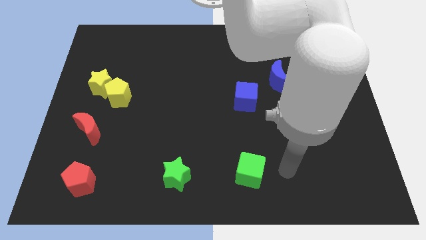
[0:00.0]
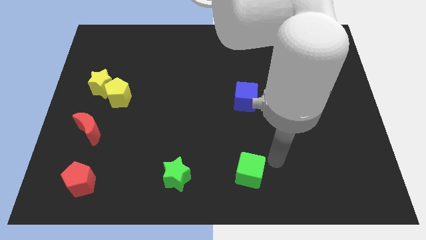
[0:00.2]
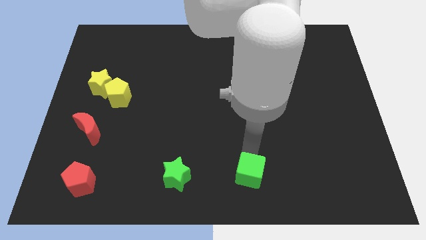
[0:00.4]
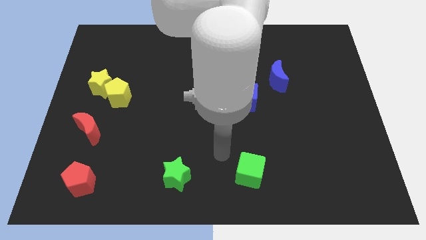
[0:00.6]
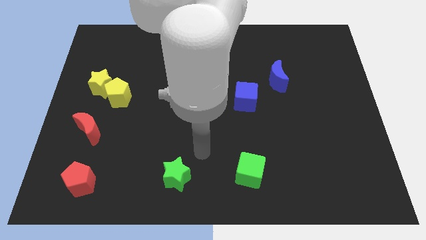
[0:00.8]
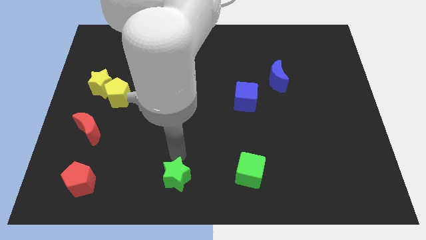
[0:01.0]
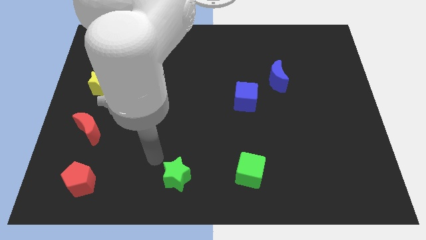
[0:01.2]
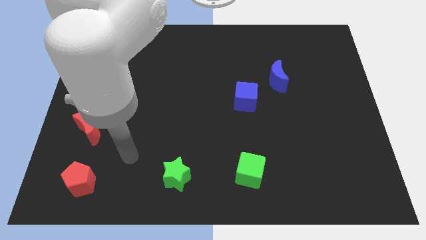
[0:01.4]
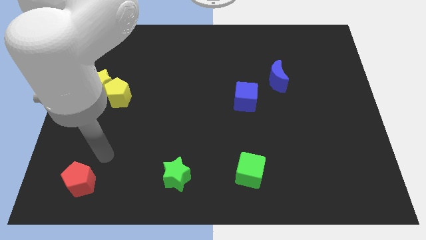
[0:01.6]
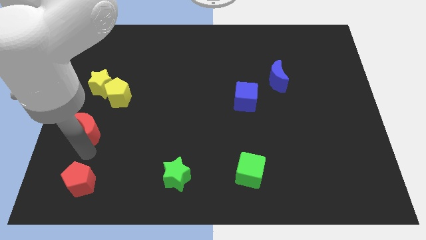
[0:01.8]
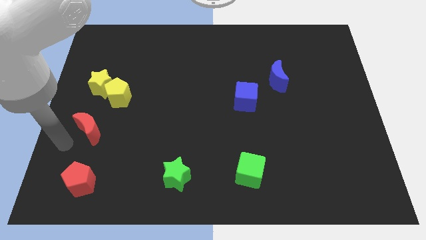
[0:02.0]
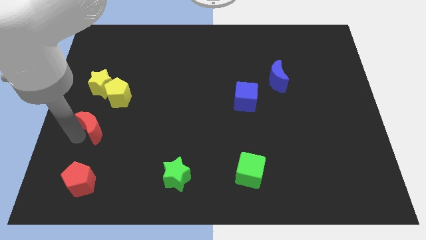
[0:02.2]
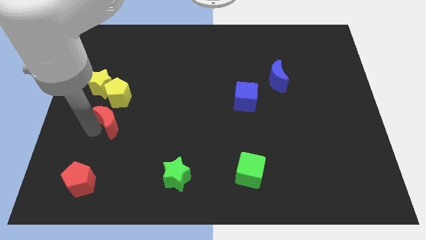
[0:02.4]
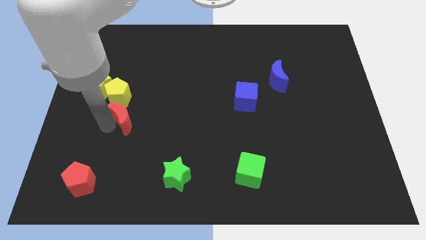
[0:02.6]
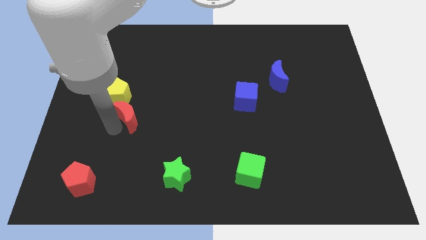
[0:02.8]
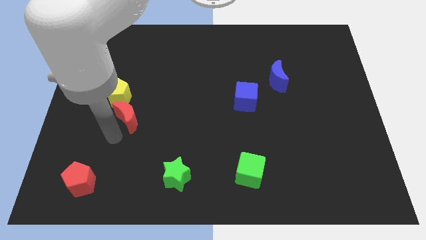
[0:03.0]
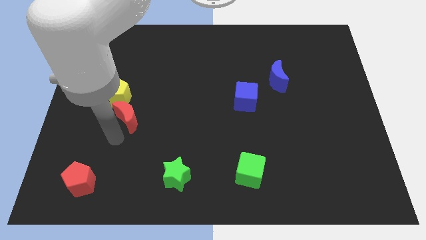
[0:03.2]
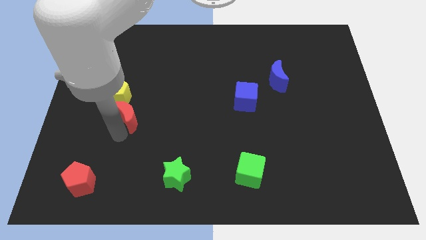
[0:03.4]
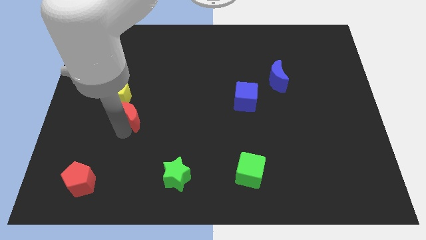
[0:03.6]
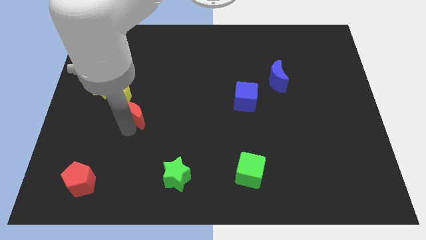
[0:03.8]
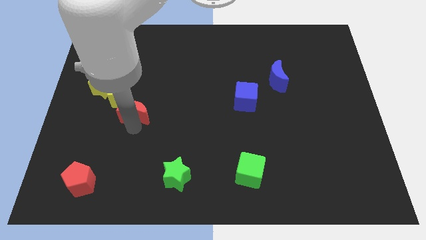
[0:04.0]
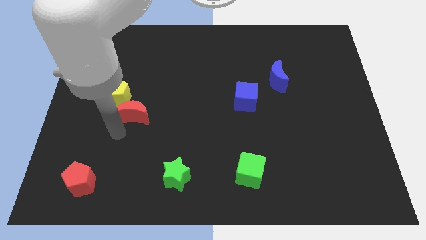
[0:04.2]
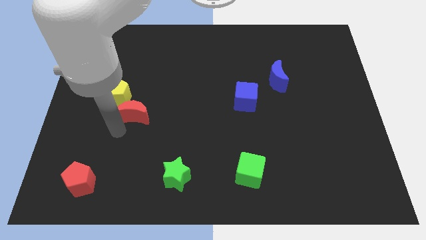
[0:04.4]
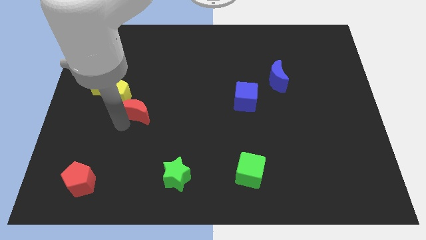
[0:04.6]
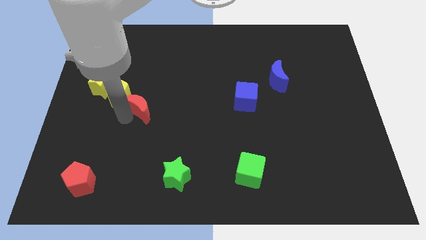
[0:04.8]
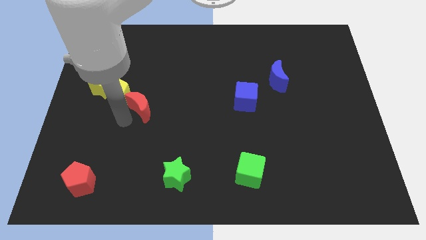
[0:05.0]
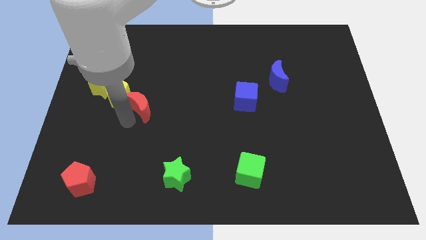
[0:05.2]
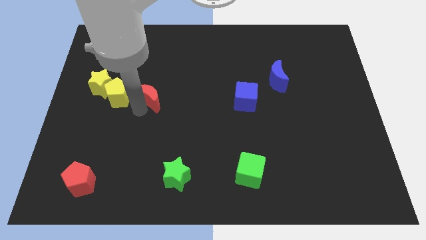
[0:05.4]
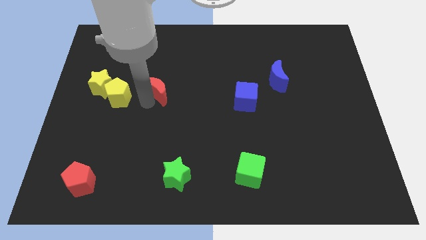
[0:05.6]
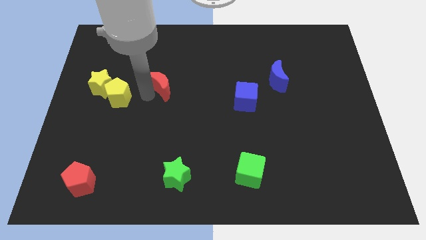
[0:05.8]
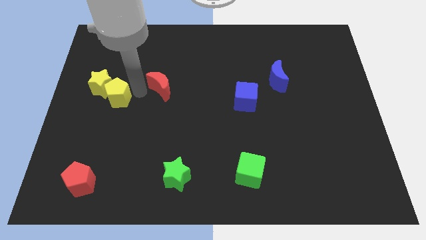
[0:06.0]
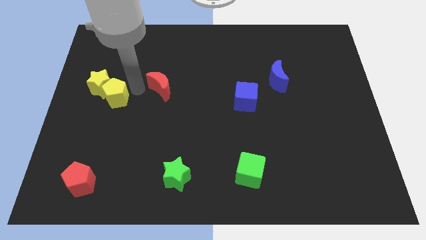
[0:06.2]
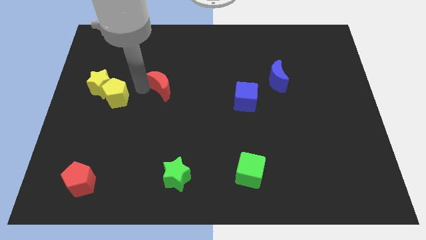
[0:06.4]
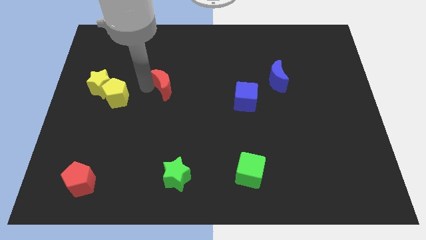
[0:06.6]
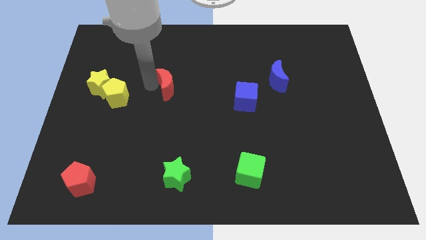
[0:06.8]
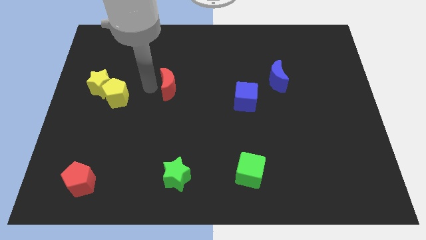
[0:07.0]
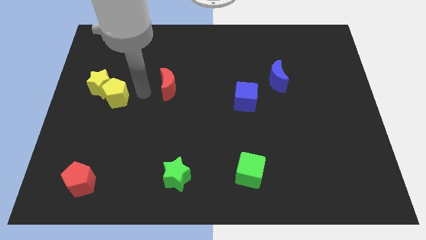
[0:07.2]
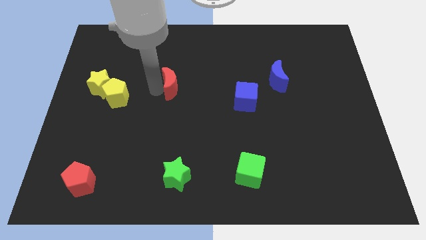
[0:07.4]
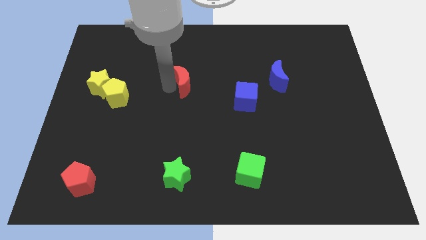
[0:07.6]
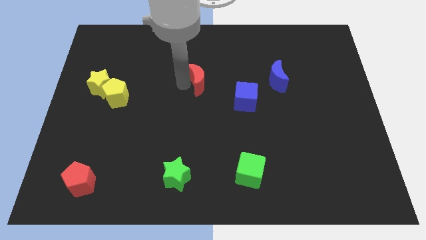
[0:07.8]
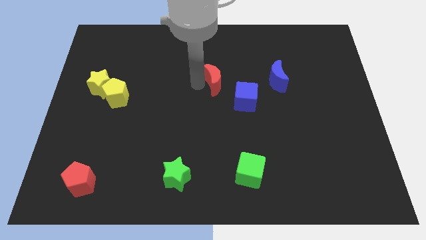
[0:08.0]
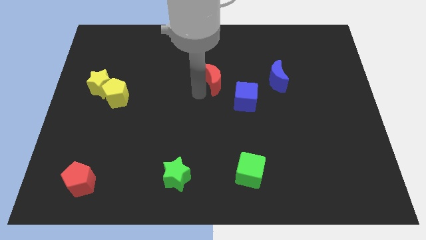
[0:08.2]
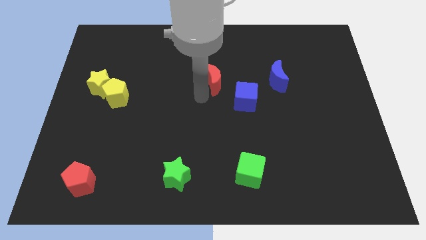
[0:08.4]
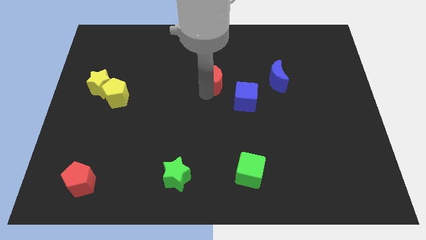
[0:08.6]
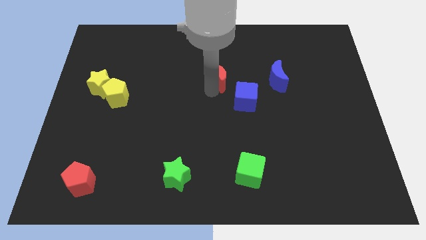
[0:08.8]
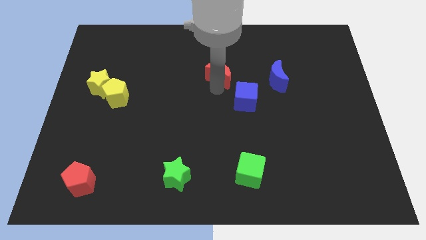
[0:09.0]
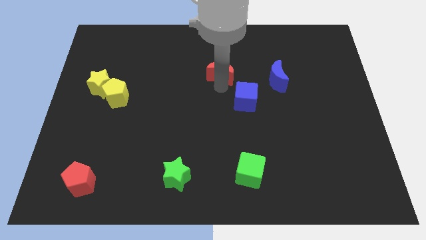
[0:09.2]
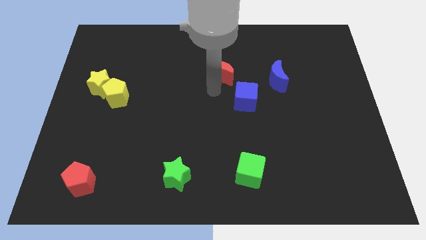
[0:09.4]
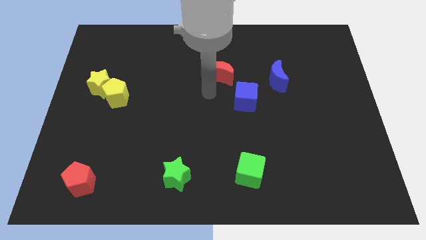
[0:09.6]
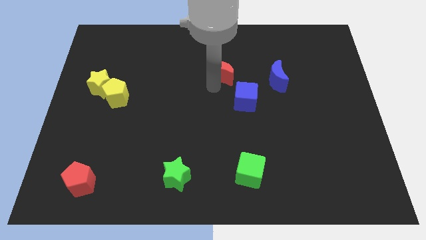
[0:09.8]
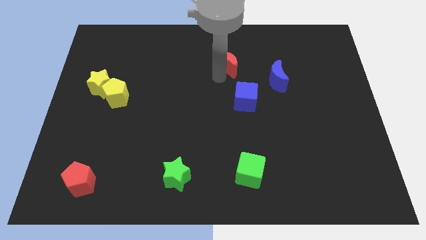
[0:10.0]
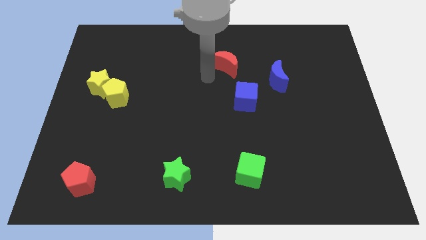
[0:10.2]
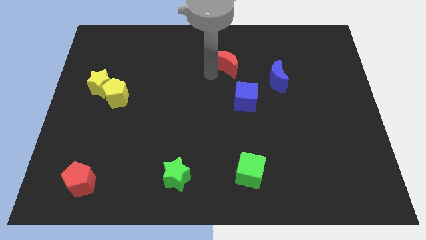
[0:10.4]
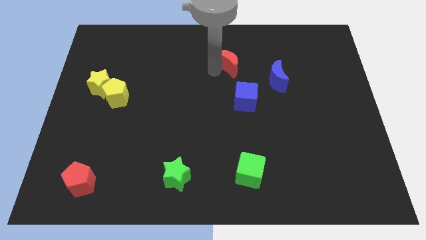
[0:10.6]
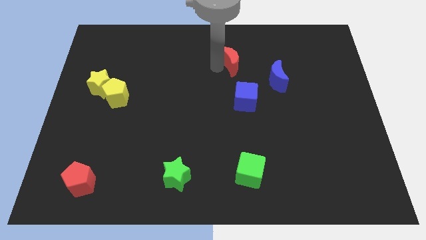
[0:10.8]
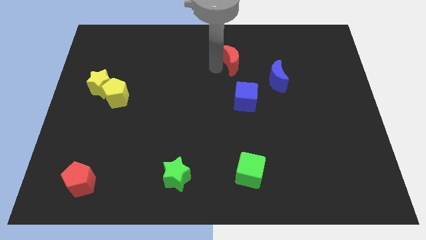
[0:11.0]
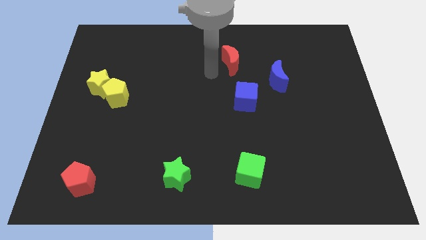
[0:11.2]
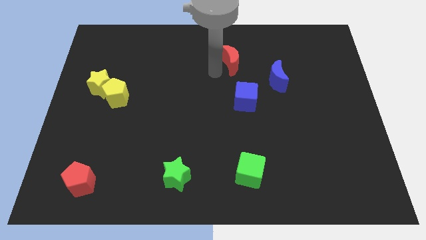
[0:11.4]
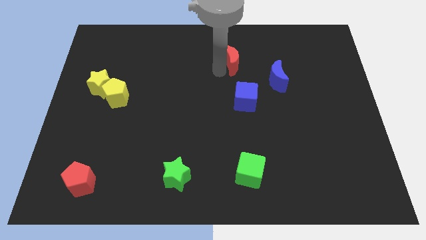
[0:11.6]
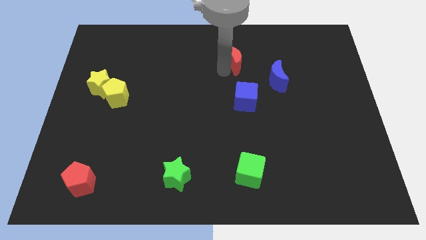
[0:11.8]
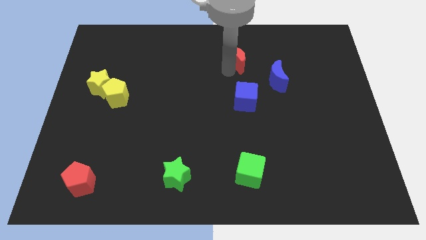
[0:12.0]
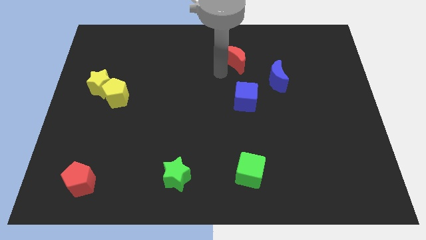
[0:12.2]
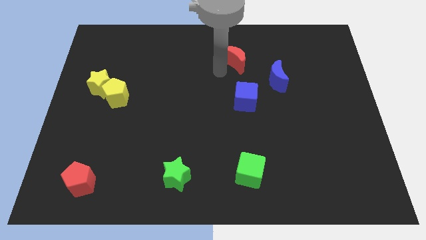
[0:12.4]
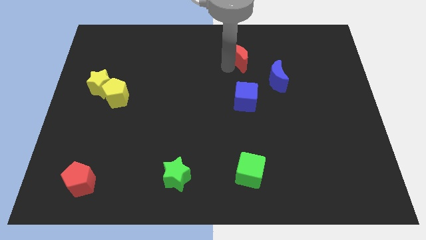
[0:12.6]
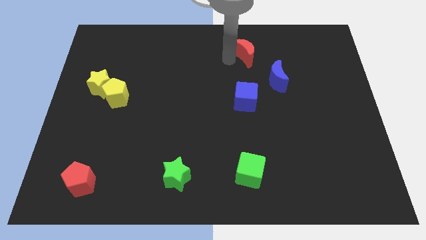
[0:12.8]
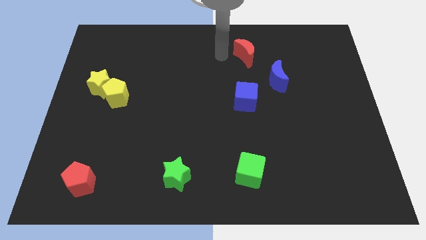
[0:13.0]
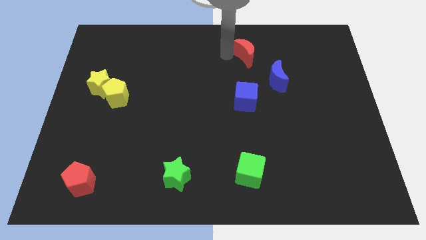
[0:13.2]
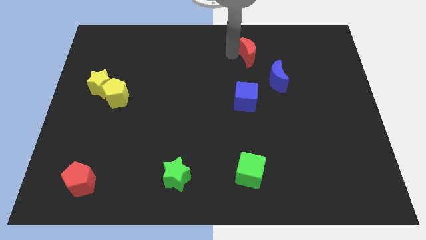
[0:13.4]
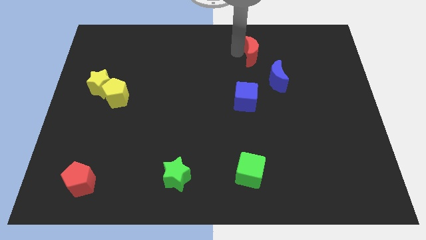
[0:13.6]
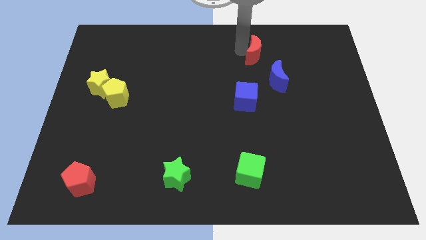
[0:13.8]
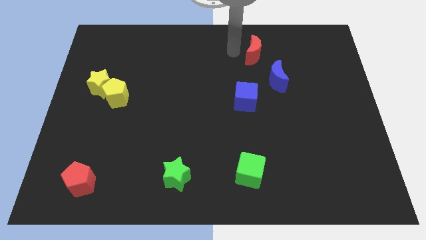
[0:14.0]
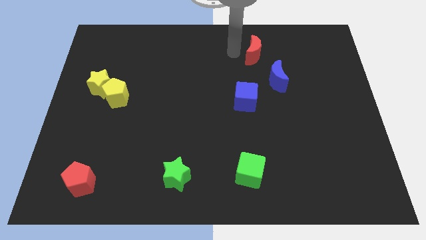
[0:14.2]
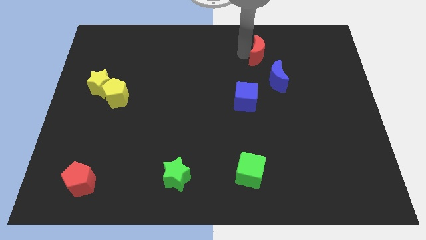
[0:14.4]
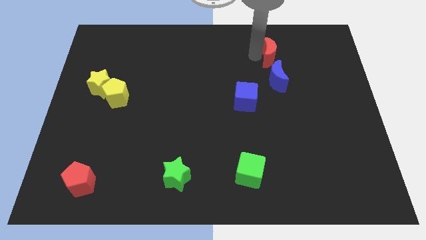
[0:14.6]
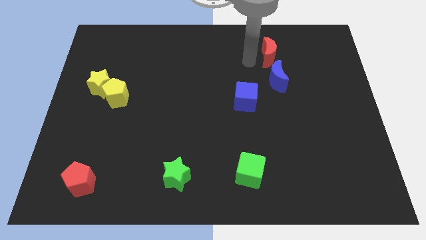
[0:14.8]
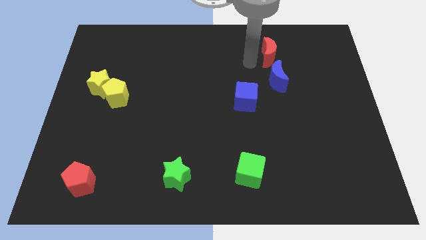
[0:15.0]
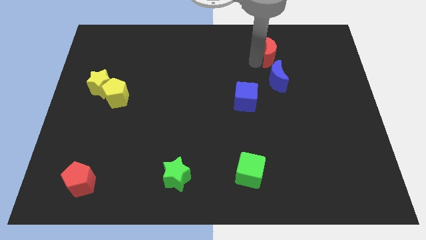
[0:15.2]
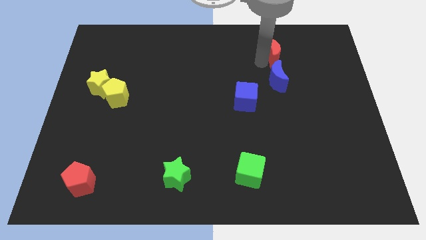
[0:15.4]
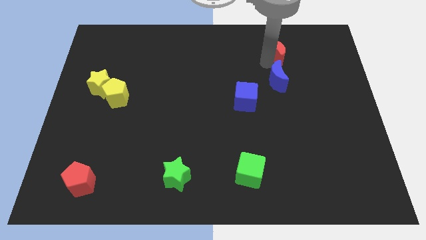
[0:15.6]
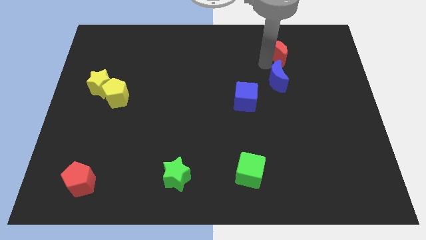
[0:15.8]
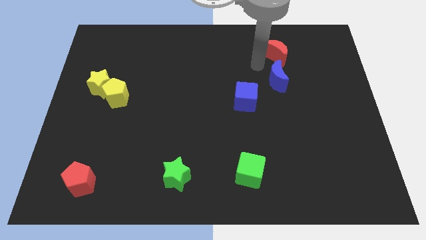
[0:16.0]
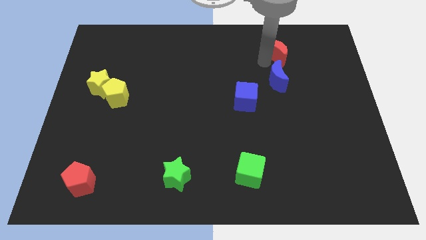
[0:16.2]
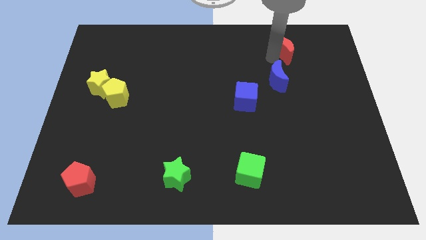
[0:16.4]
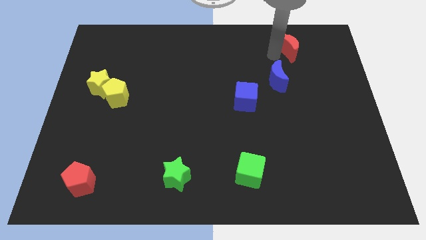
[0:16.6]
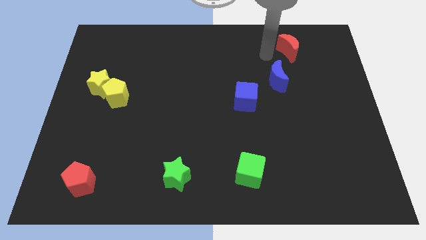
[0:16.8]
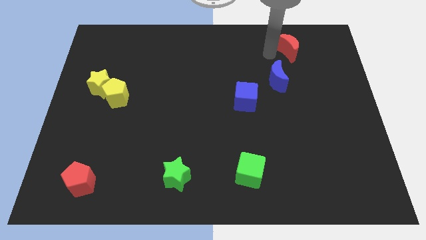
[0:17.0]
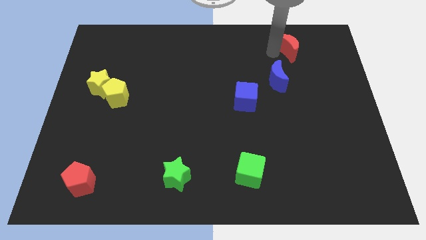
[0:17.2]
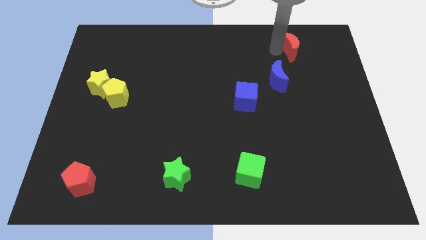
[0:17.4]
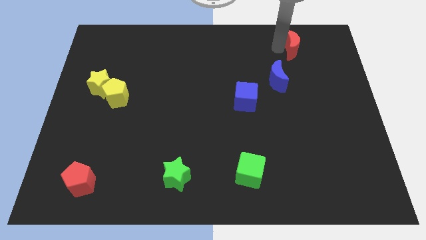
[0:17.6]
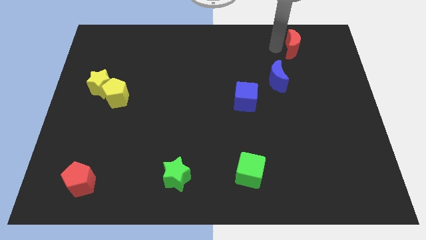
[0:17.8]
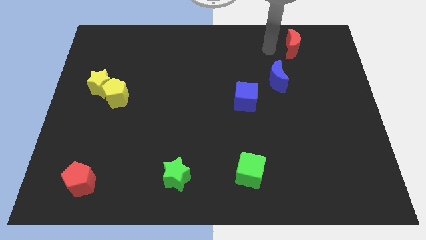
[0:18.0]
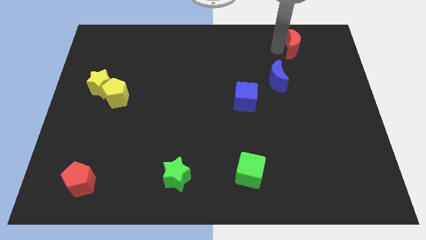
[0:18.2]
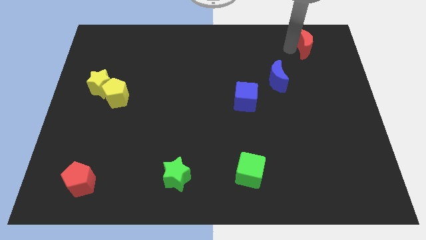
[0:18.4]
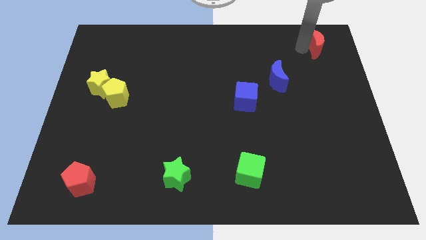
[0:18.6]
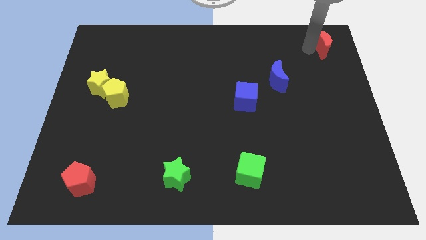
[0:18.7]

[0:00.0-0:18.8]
slide the red moon to the top right
